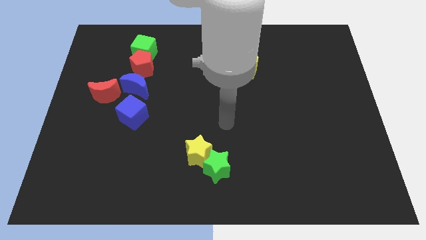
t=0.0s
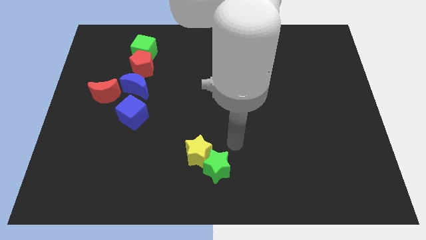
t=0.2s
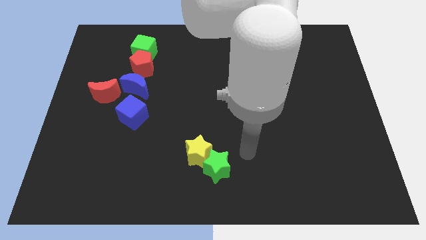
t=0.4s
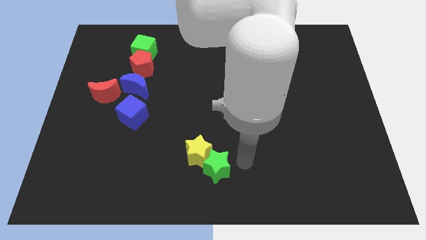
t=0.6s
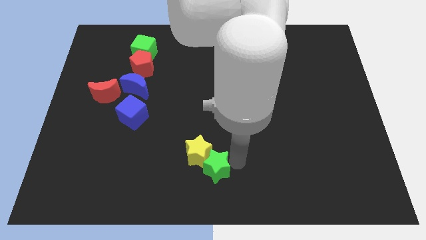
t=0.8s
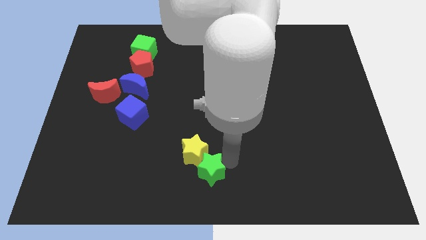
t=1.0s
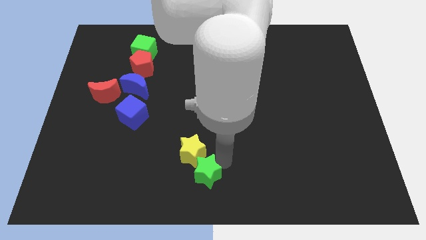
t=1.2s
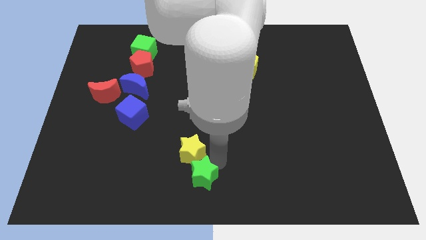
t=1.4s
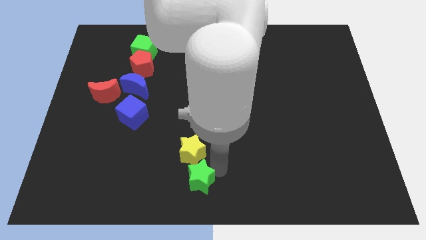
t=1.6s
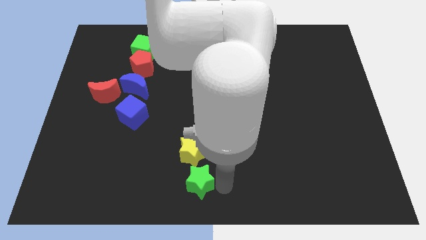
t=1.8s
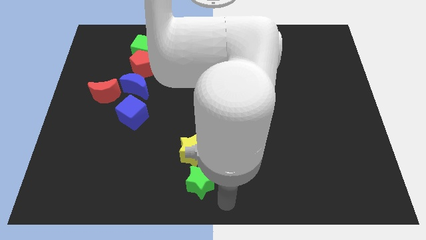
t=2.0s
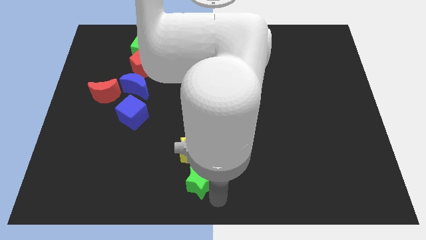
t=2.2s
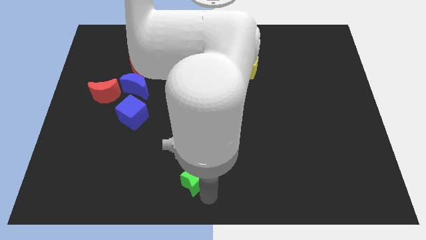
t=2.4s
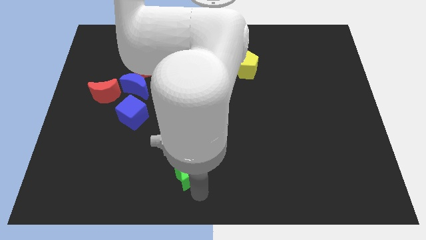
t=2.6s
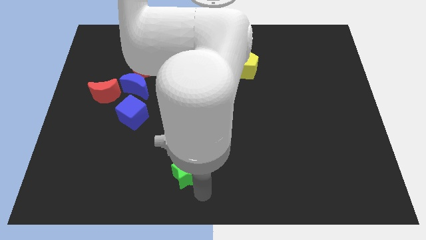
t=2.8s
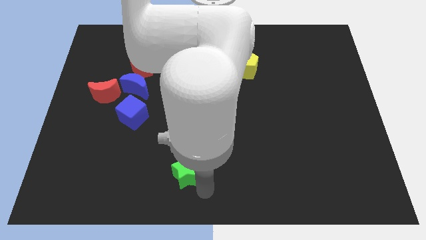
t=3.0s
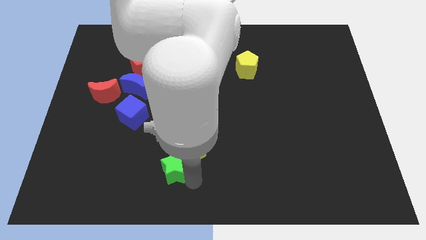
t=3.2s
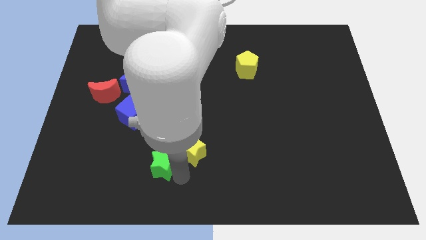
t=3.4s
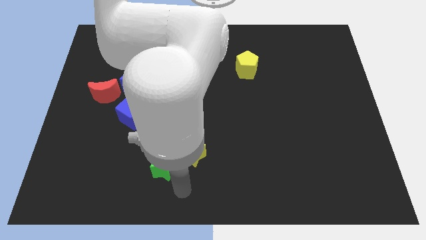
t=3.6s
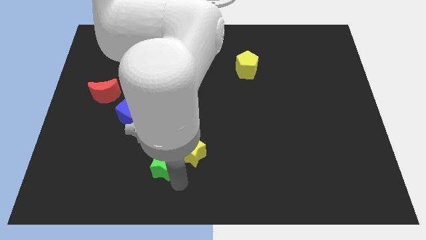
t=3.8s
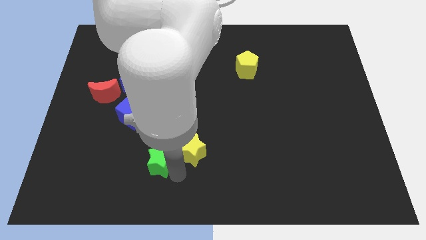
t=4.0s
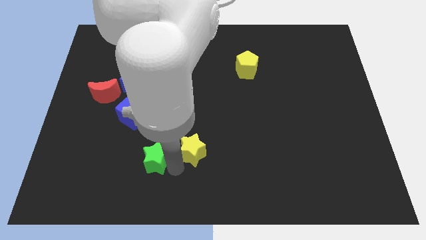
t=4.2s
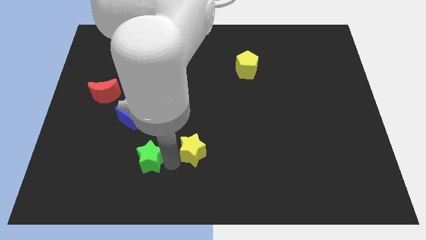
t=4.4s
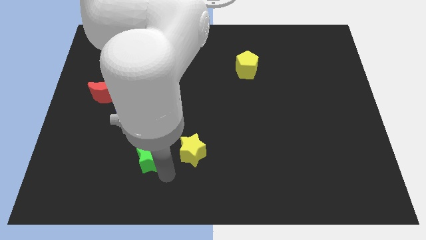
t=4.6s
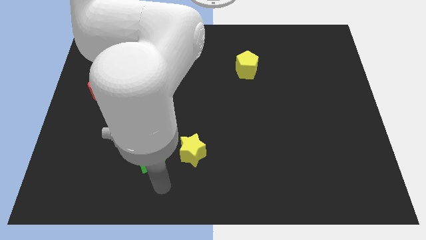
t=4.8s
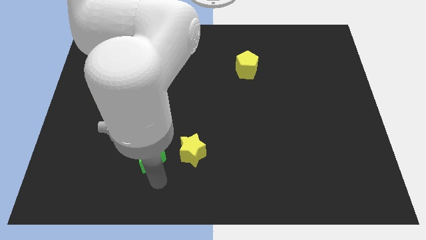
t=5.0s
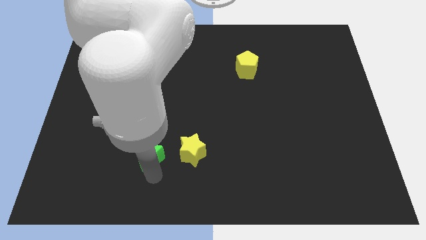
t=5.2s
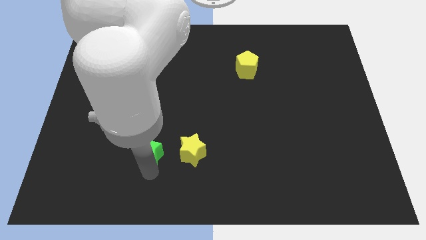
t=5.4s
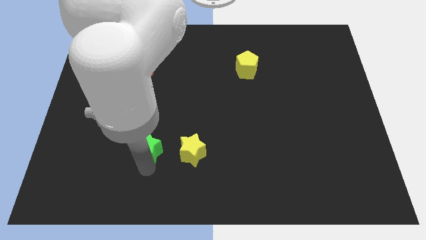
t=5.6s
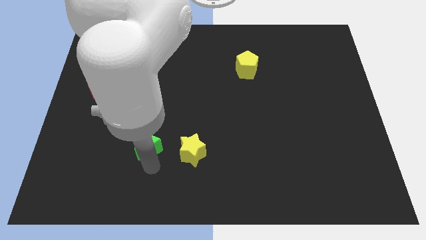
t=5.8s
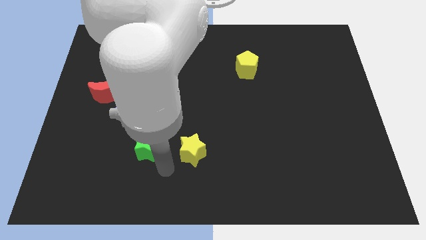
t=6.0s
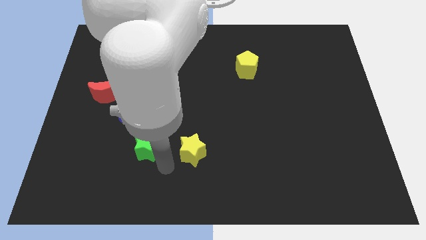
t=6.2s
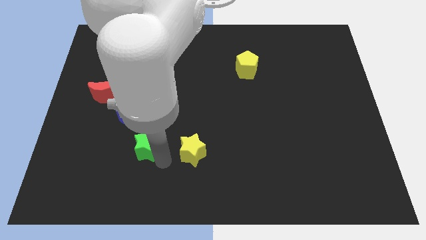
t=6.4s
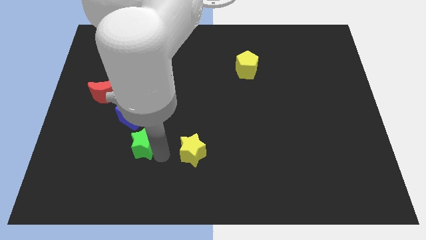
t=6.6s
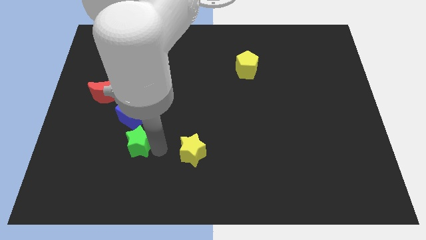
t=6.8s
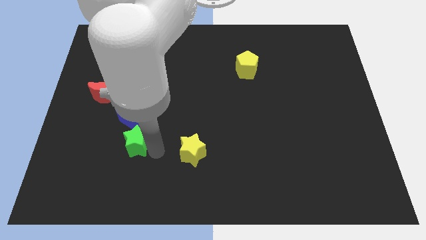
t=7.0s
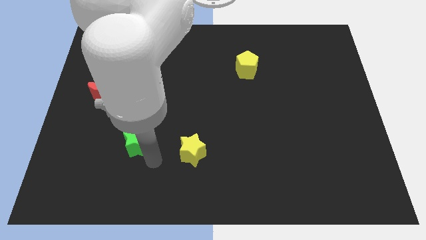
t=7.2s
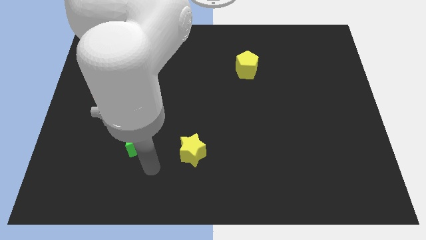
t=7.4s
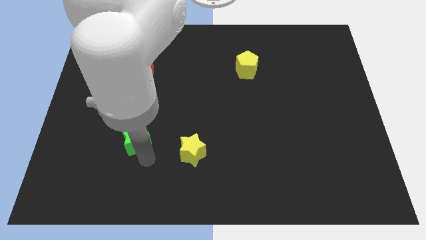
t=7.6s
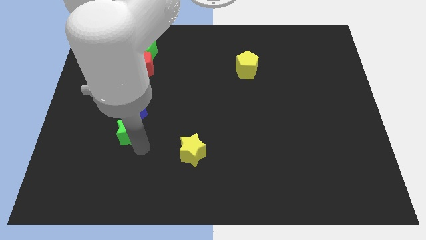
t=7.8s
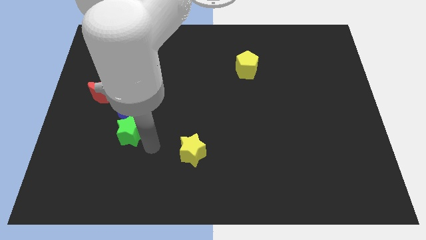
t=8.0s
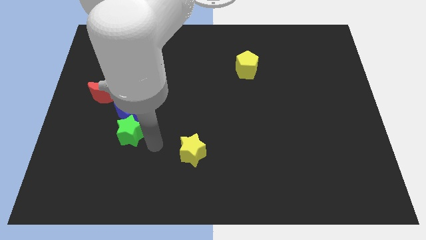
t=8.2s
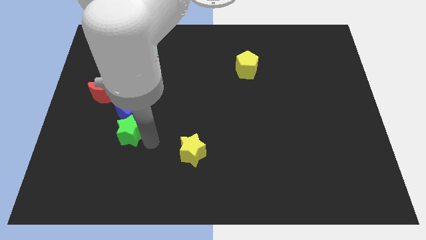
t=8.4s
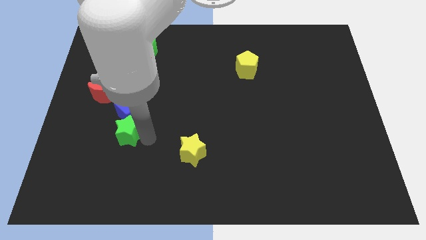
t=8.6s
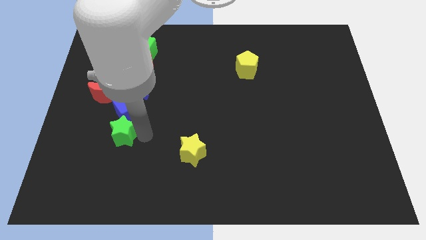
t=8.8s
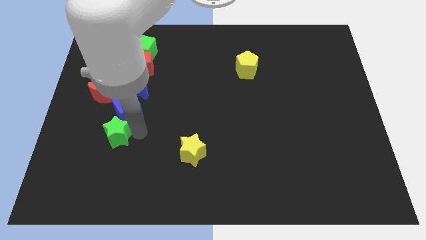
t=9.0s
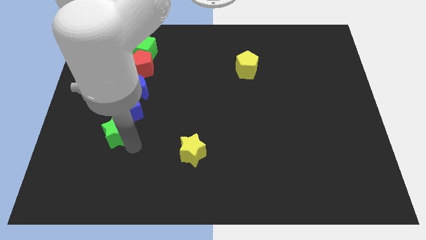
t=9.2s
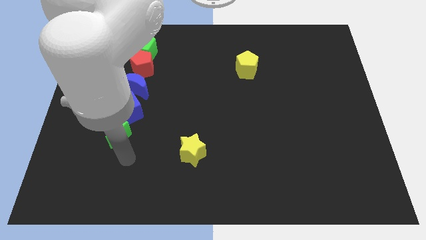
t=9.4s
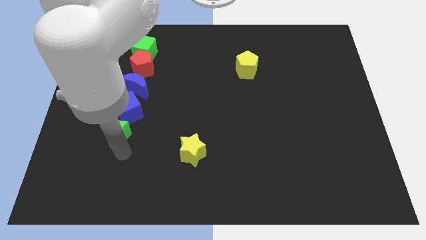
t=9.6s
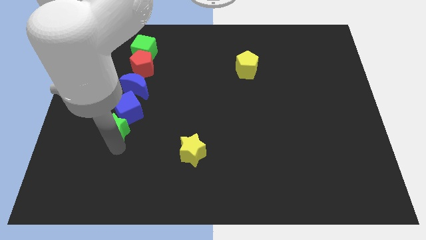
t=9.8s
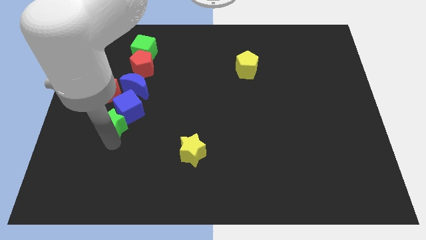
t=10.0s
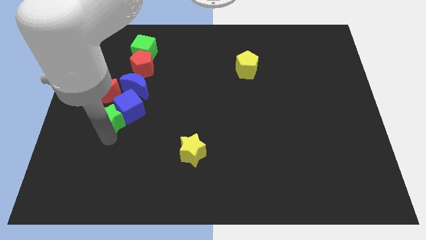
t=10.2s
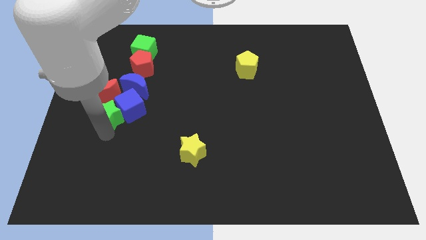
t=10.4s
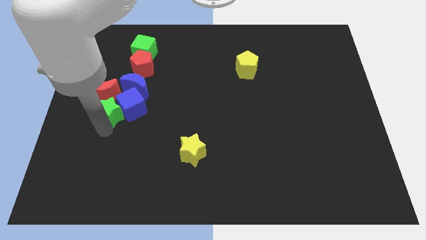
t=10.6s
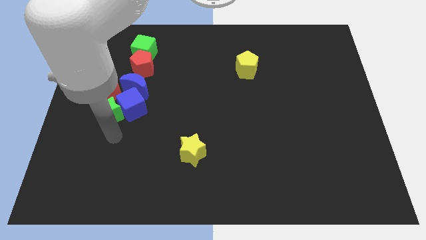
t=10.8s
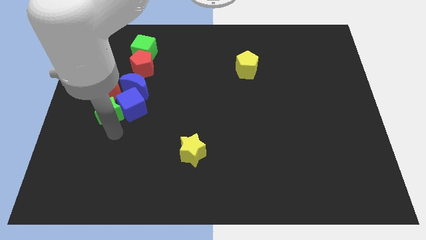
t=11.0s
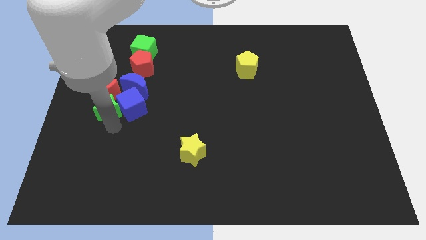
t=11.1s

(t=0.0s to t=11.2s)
push the green star next to the red moon

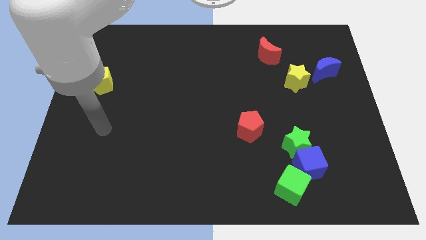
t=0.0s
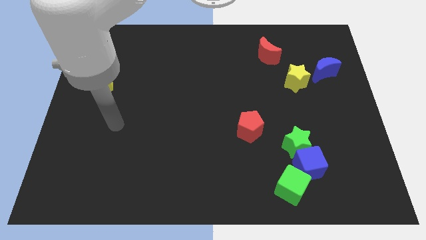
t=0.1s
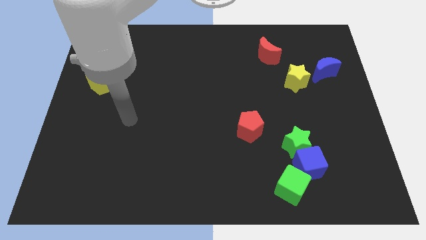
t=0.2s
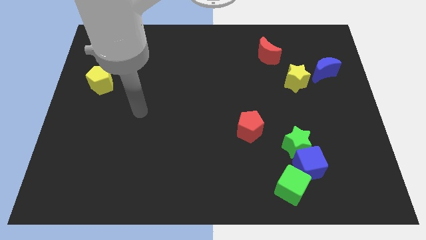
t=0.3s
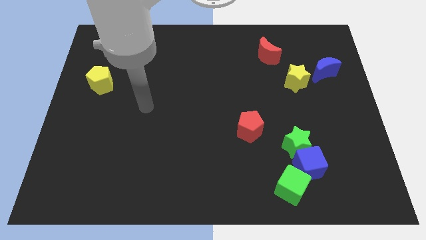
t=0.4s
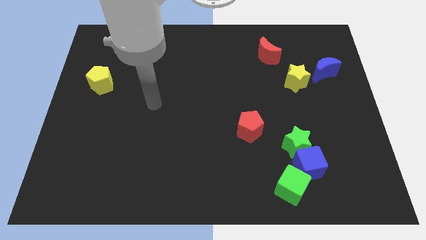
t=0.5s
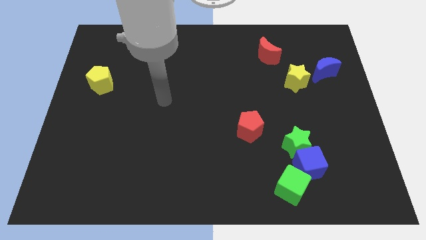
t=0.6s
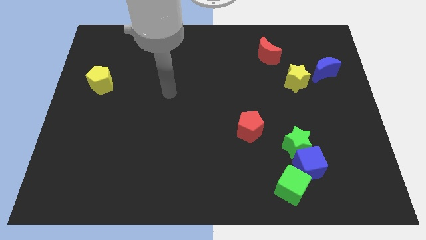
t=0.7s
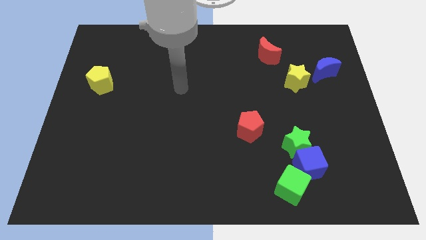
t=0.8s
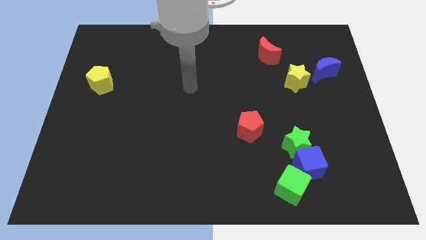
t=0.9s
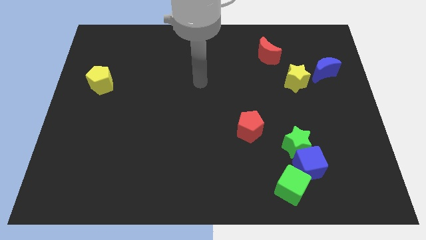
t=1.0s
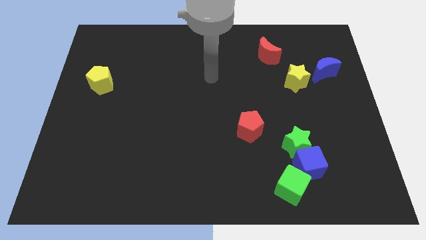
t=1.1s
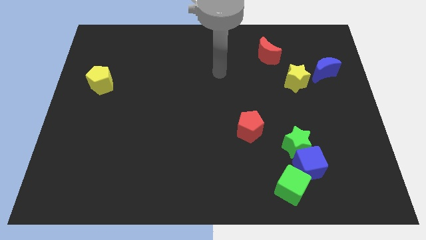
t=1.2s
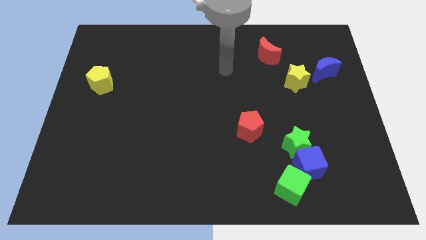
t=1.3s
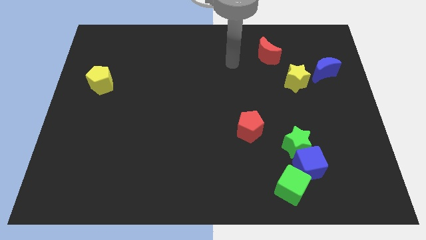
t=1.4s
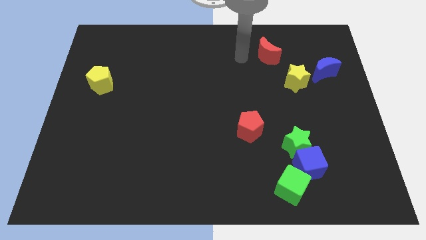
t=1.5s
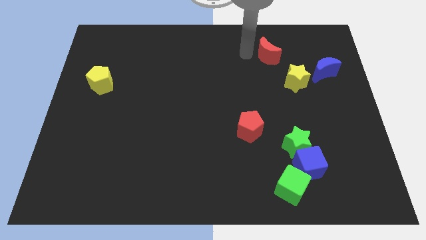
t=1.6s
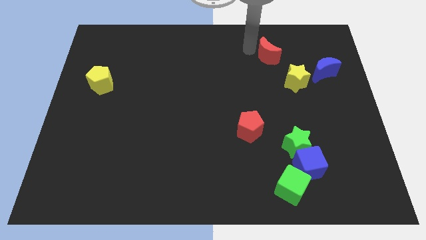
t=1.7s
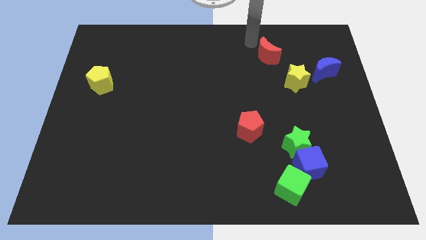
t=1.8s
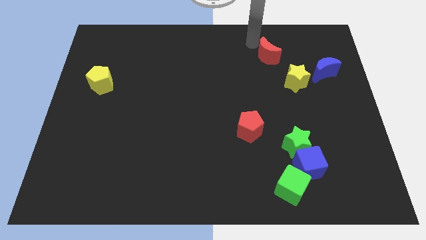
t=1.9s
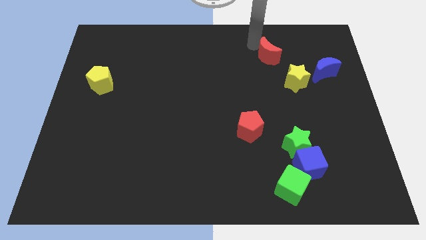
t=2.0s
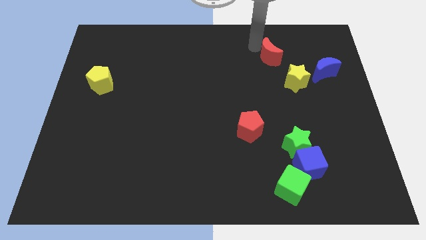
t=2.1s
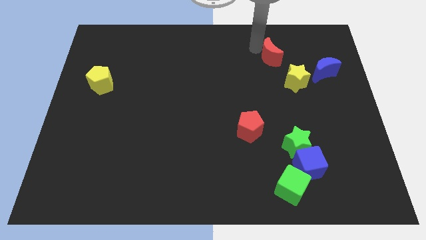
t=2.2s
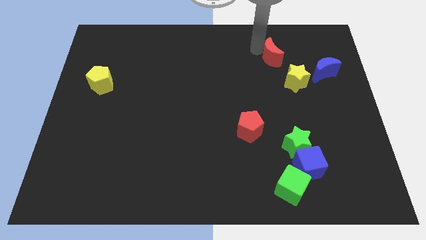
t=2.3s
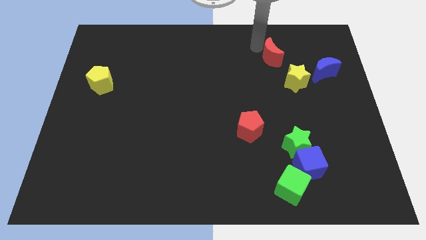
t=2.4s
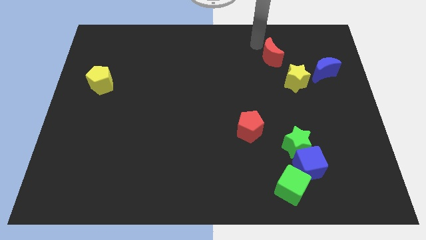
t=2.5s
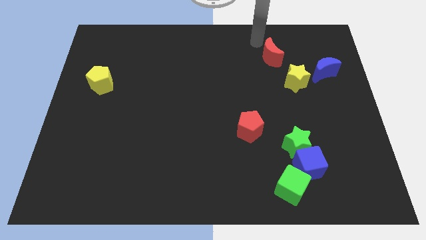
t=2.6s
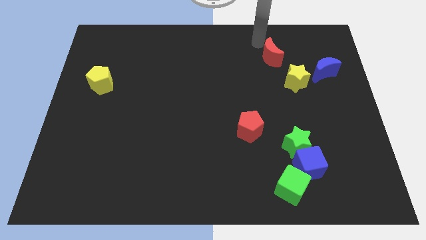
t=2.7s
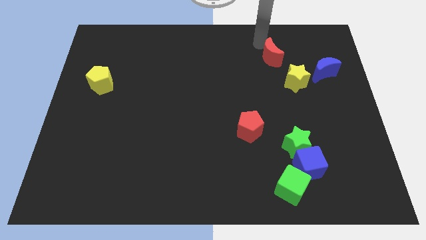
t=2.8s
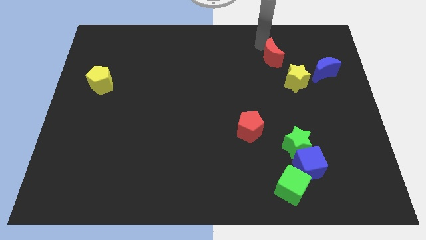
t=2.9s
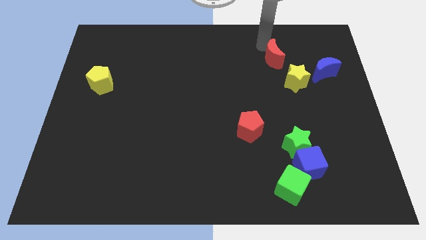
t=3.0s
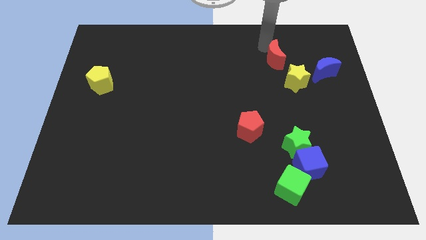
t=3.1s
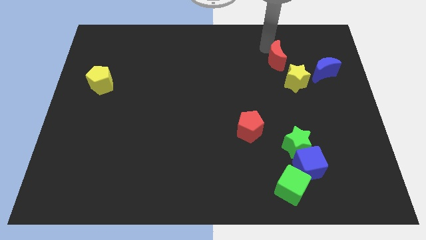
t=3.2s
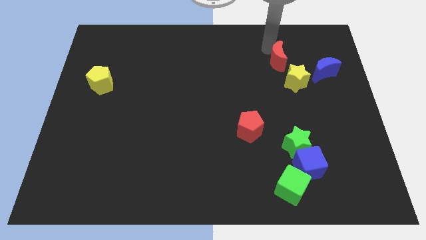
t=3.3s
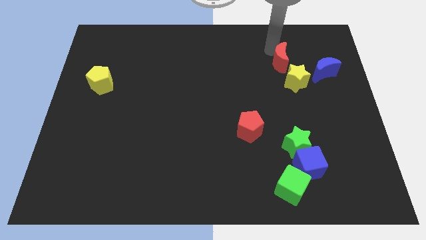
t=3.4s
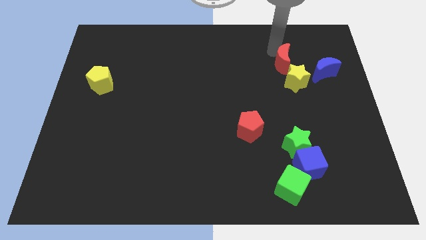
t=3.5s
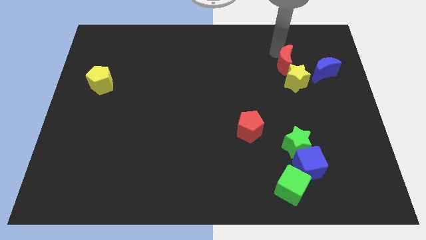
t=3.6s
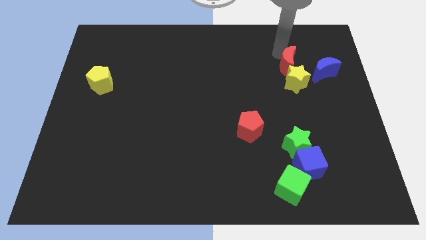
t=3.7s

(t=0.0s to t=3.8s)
slide the red moon to the yellow star
